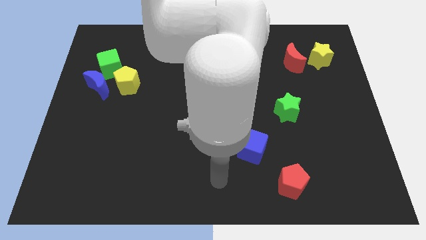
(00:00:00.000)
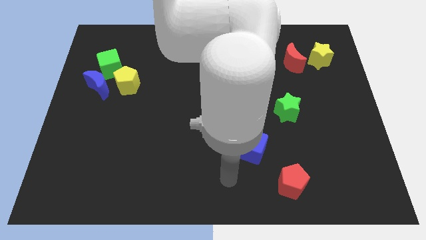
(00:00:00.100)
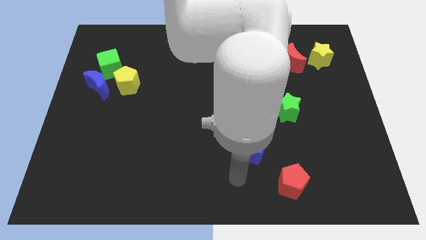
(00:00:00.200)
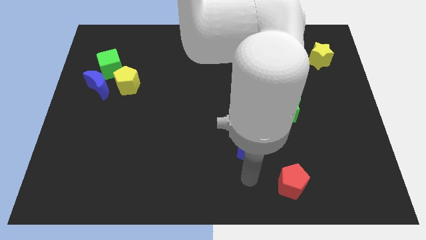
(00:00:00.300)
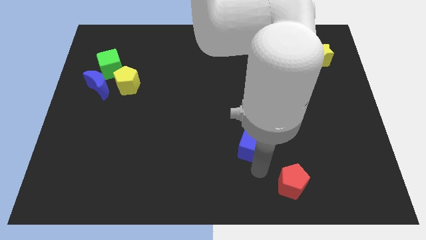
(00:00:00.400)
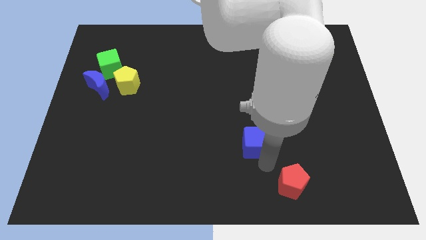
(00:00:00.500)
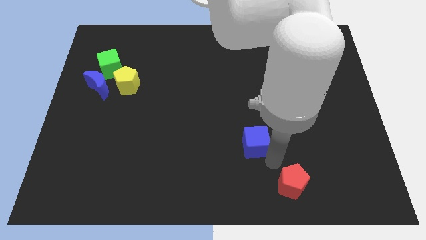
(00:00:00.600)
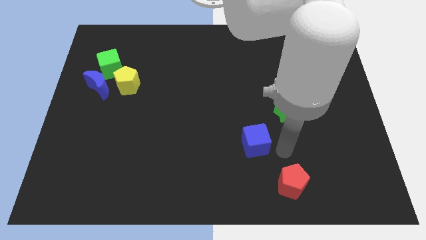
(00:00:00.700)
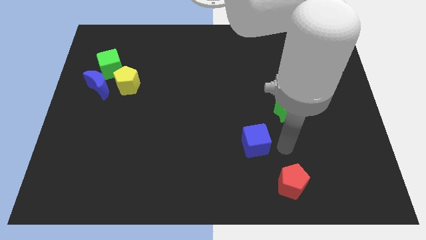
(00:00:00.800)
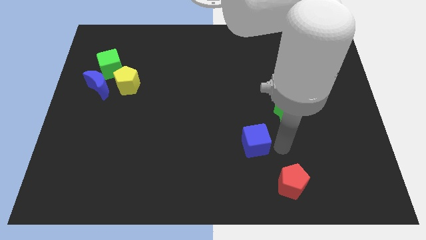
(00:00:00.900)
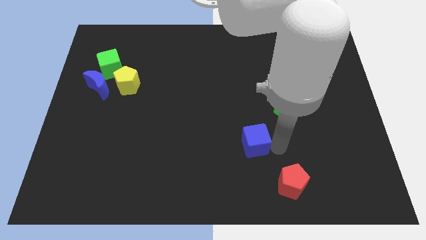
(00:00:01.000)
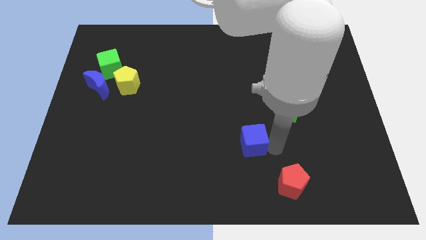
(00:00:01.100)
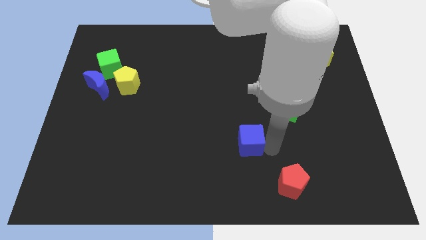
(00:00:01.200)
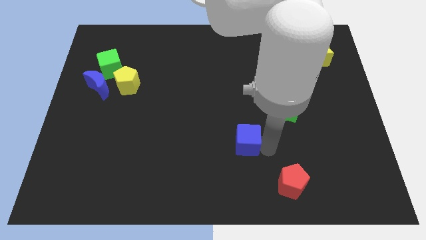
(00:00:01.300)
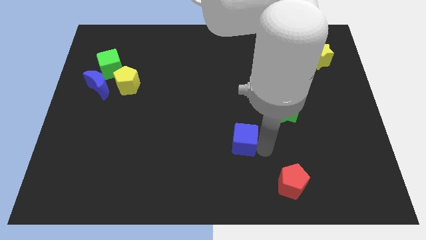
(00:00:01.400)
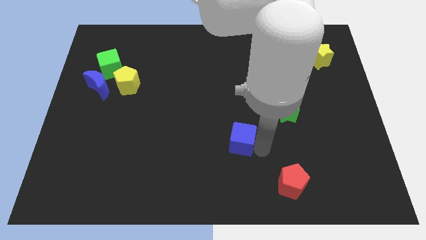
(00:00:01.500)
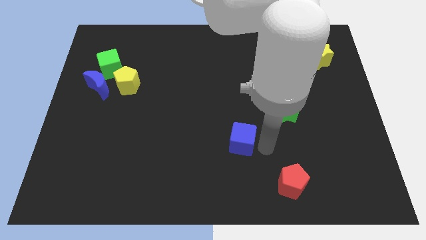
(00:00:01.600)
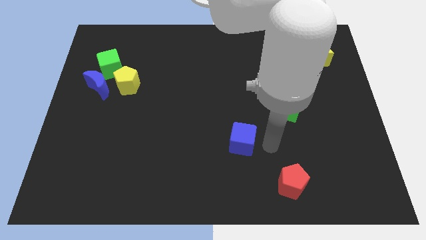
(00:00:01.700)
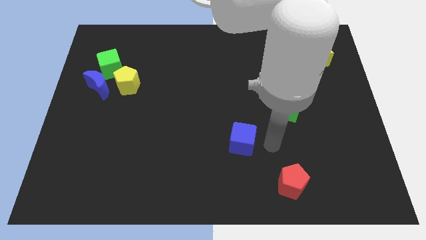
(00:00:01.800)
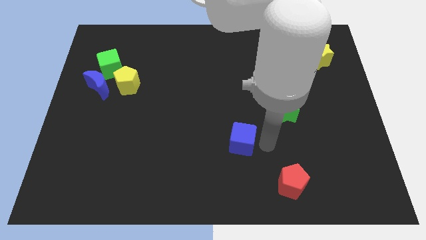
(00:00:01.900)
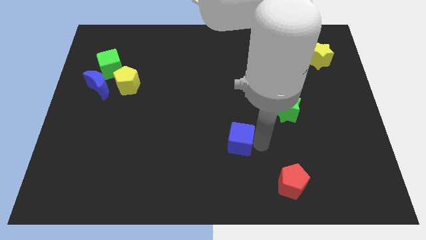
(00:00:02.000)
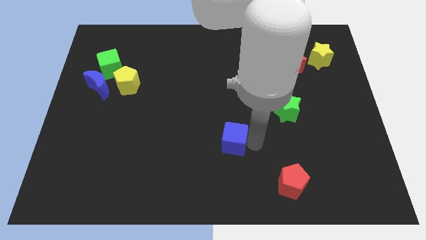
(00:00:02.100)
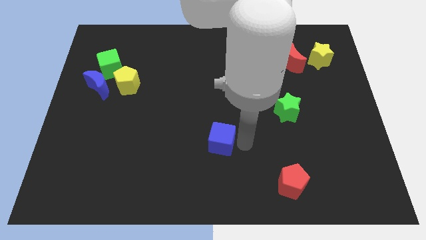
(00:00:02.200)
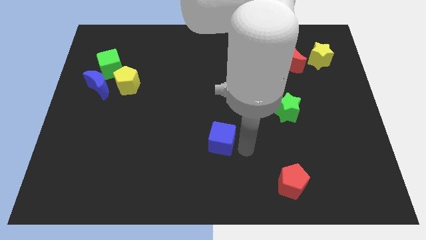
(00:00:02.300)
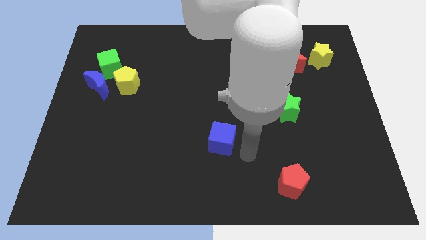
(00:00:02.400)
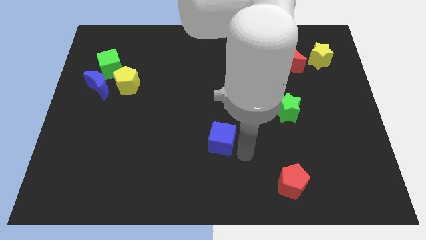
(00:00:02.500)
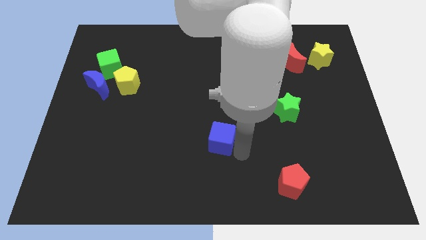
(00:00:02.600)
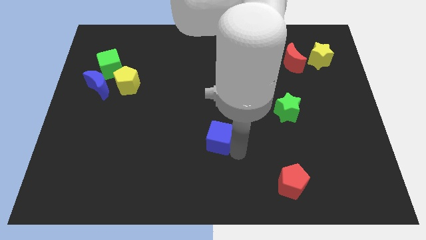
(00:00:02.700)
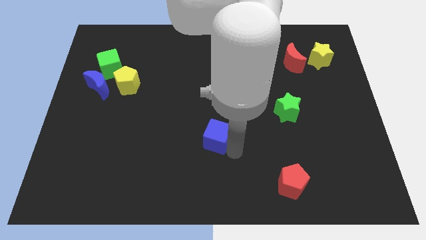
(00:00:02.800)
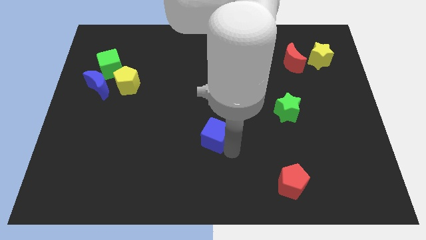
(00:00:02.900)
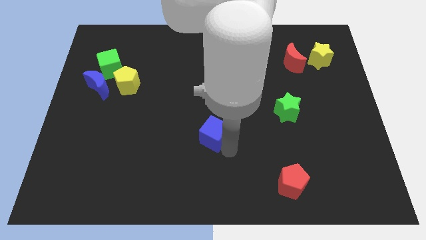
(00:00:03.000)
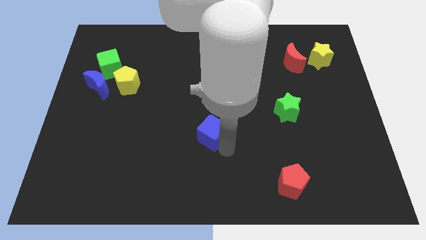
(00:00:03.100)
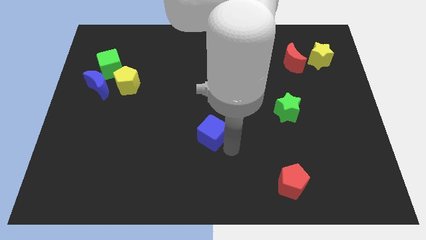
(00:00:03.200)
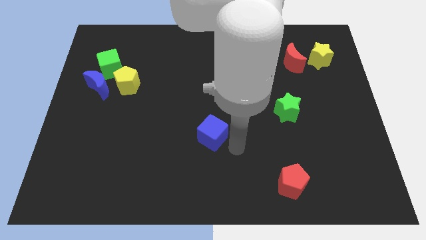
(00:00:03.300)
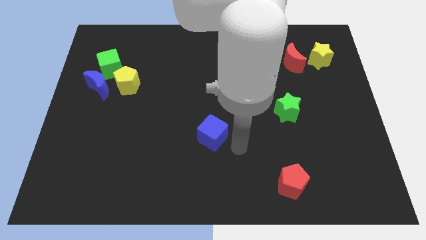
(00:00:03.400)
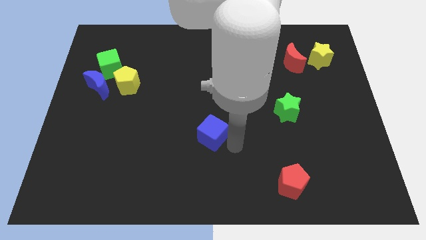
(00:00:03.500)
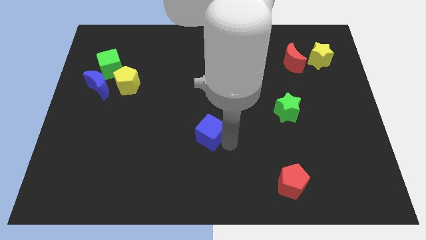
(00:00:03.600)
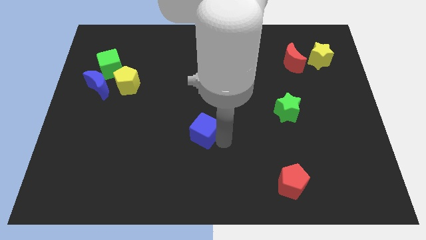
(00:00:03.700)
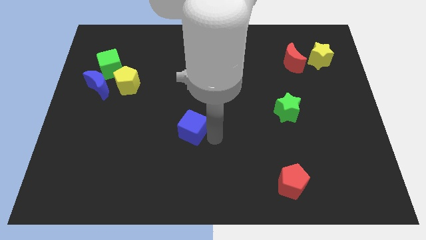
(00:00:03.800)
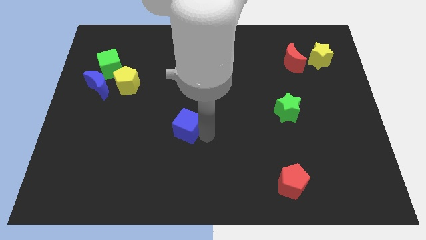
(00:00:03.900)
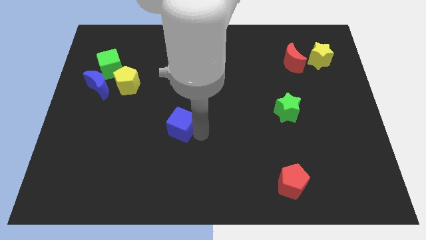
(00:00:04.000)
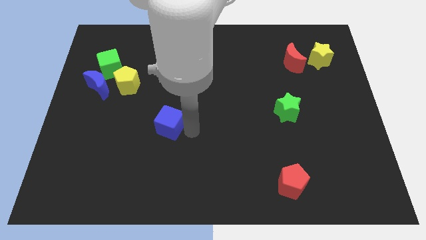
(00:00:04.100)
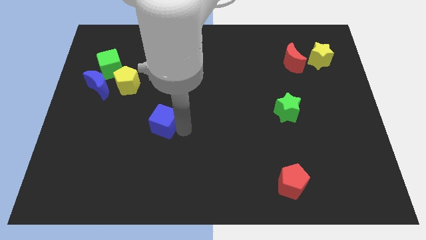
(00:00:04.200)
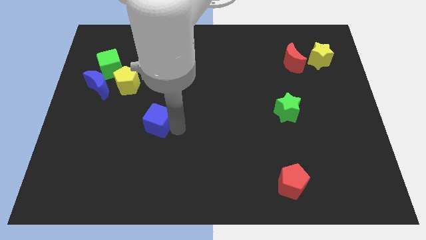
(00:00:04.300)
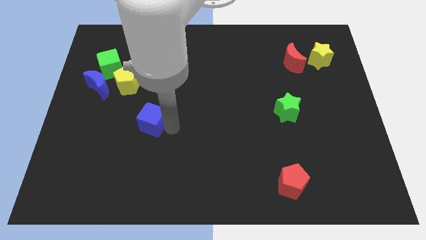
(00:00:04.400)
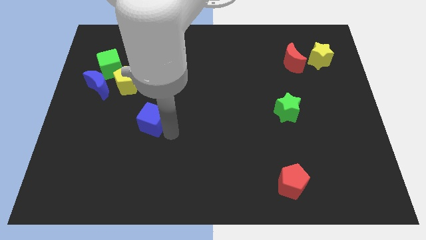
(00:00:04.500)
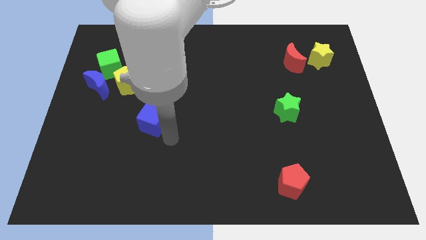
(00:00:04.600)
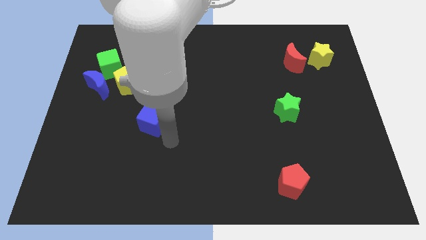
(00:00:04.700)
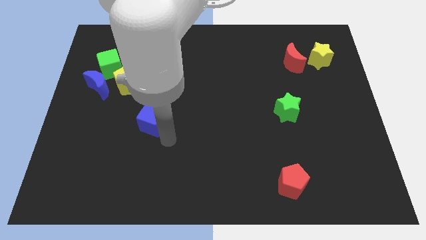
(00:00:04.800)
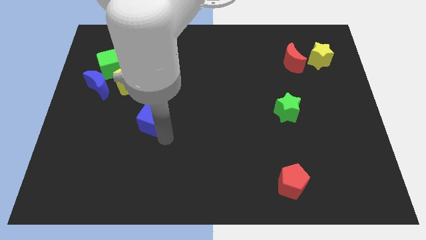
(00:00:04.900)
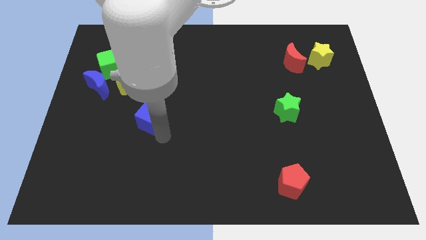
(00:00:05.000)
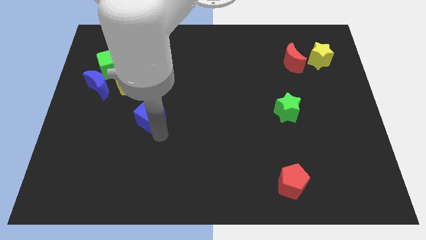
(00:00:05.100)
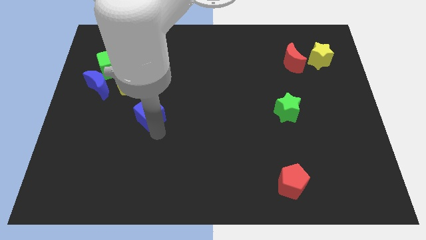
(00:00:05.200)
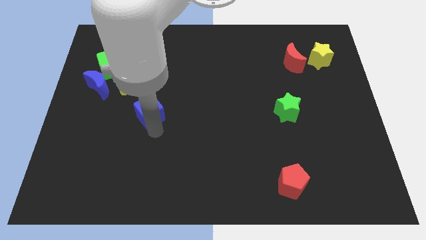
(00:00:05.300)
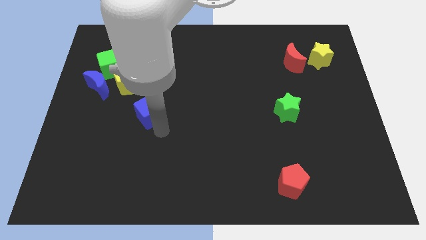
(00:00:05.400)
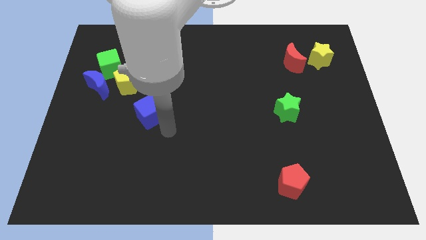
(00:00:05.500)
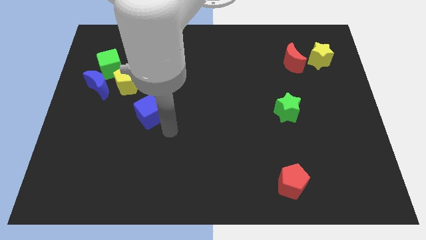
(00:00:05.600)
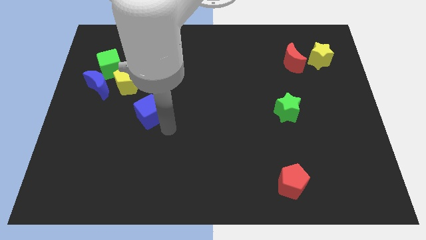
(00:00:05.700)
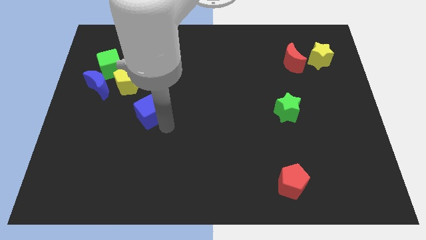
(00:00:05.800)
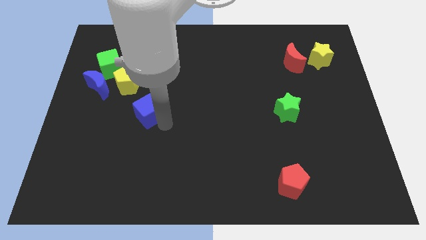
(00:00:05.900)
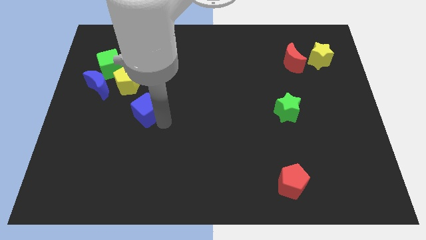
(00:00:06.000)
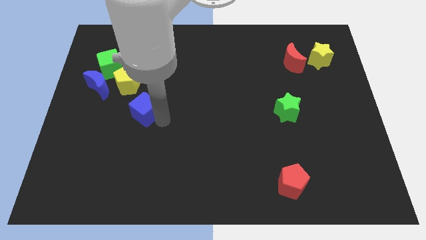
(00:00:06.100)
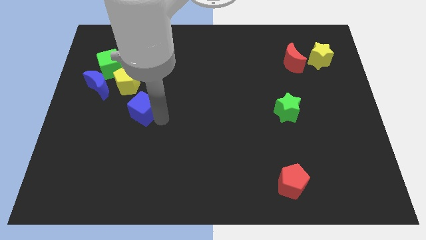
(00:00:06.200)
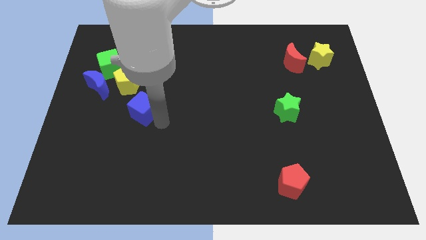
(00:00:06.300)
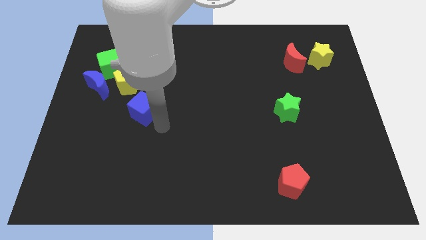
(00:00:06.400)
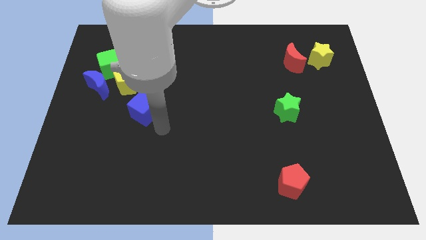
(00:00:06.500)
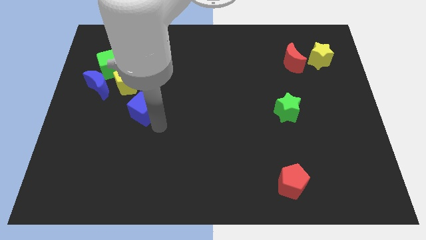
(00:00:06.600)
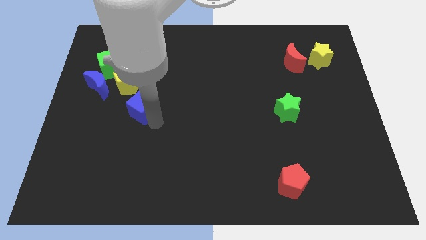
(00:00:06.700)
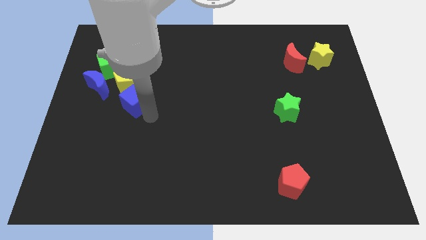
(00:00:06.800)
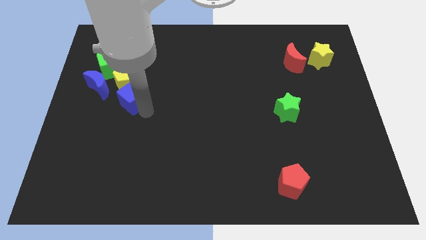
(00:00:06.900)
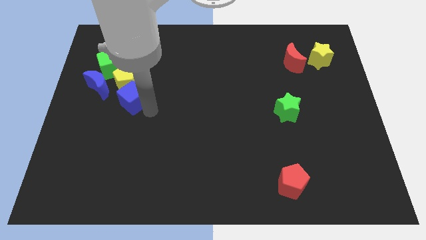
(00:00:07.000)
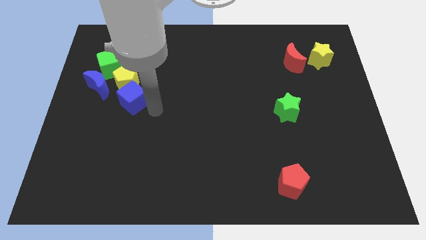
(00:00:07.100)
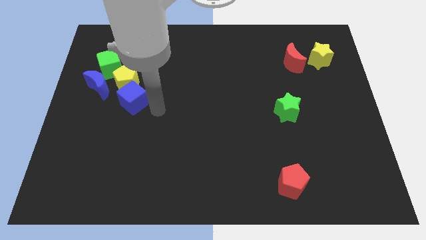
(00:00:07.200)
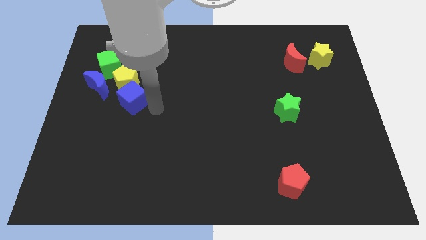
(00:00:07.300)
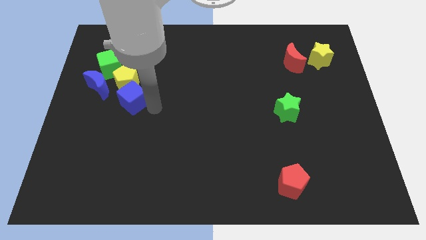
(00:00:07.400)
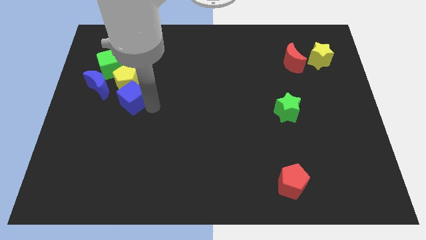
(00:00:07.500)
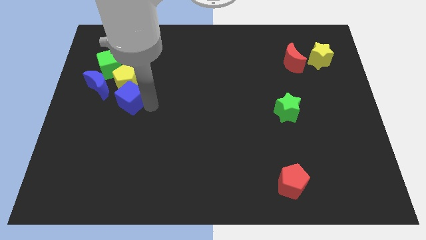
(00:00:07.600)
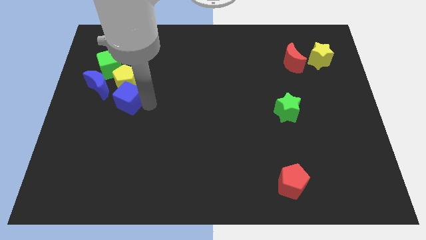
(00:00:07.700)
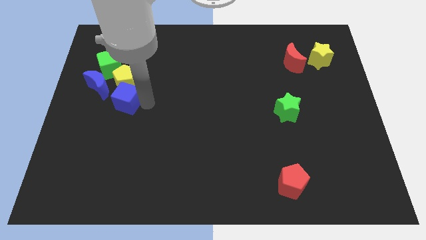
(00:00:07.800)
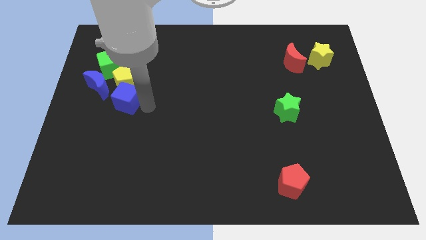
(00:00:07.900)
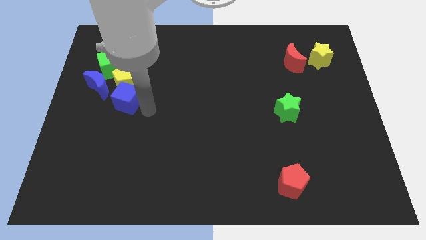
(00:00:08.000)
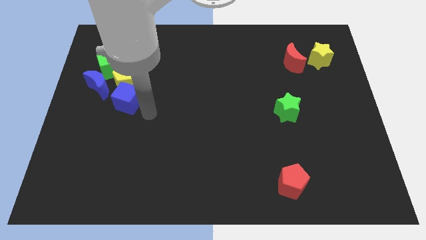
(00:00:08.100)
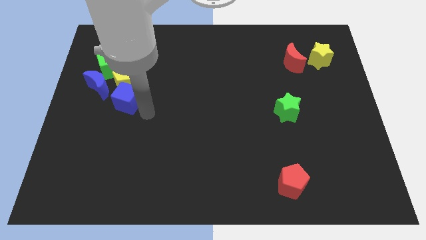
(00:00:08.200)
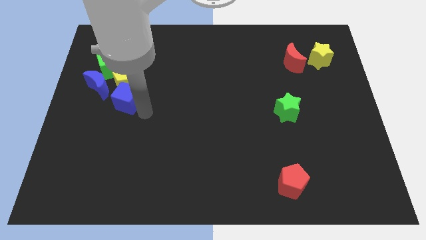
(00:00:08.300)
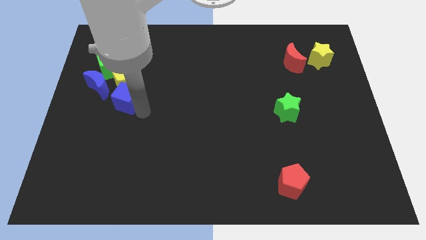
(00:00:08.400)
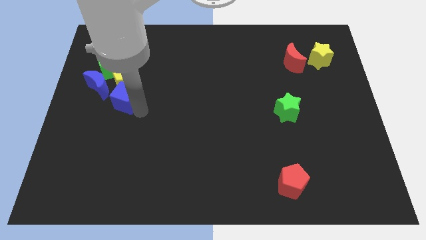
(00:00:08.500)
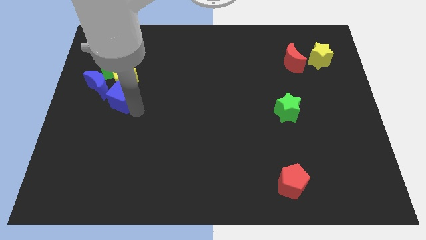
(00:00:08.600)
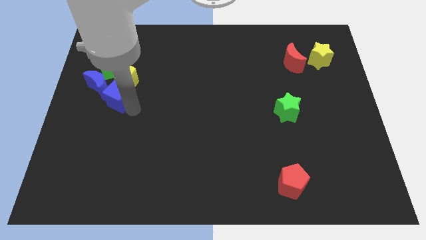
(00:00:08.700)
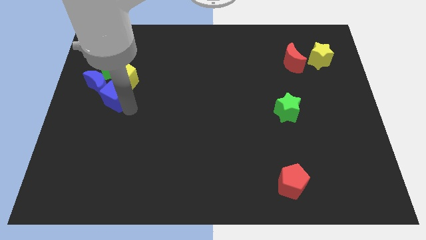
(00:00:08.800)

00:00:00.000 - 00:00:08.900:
put the blue cube to the blue moon
